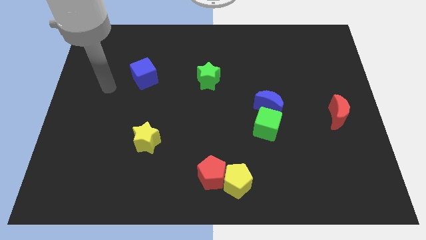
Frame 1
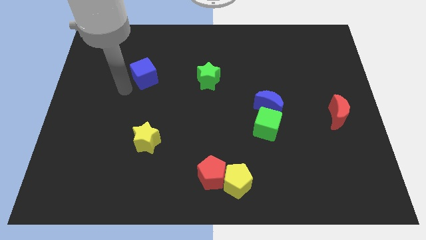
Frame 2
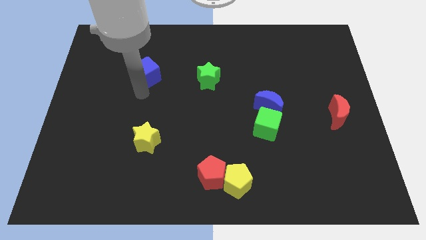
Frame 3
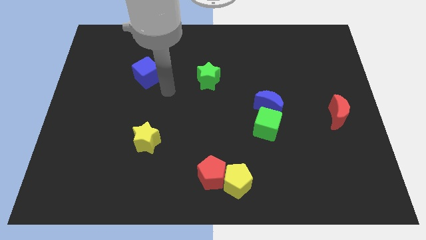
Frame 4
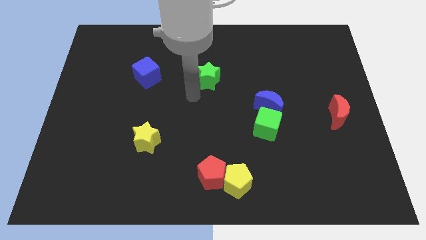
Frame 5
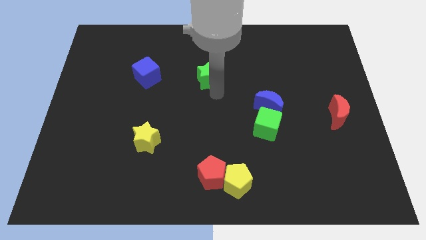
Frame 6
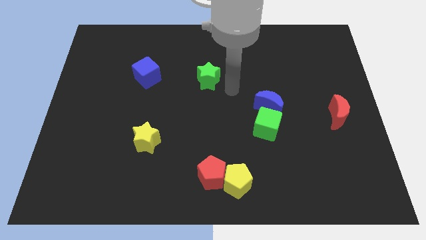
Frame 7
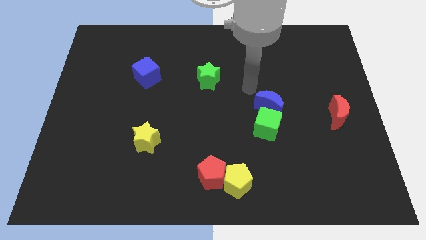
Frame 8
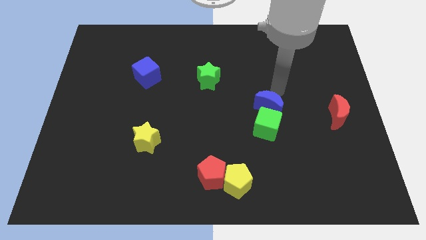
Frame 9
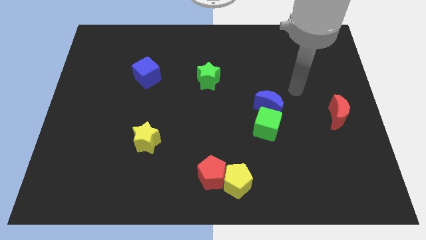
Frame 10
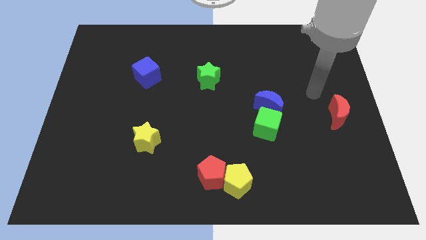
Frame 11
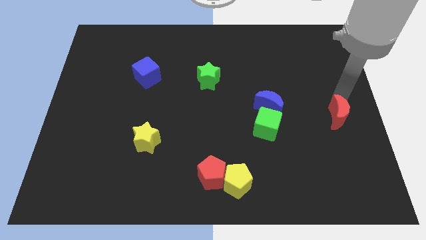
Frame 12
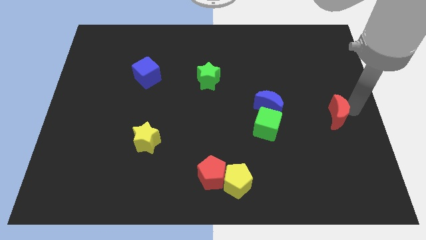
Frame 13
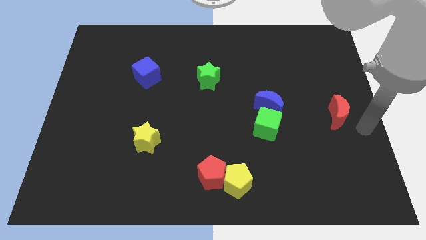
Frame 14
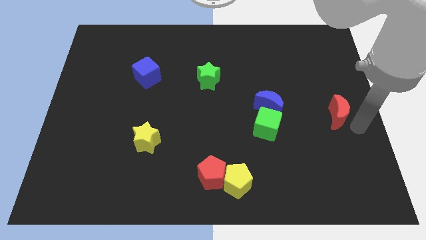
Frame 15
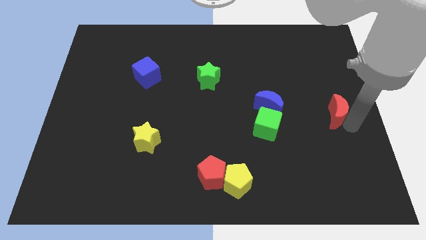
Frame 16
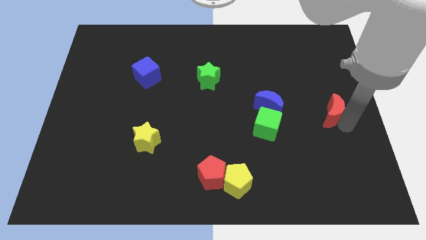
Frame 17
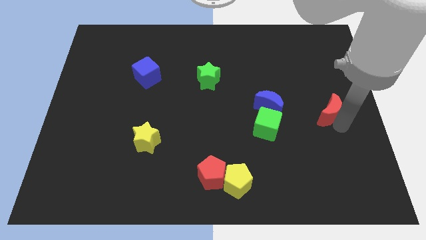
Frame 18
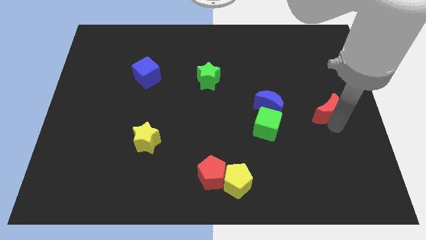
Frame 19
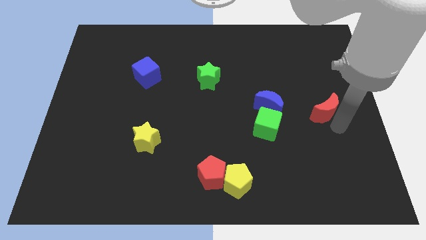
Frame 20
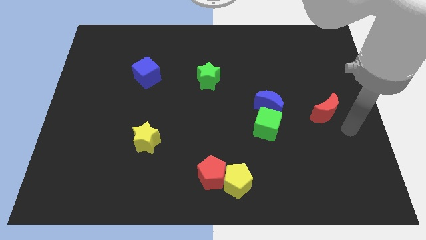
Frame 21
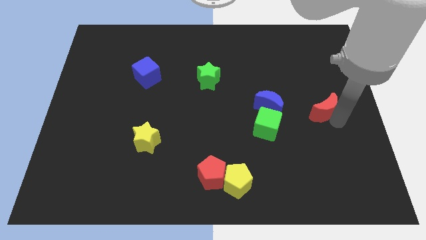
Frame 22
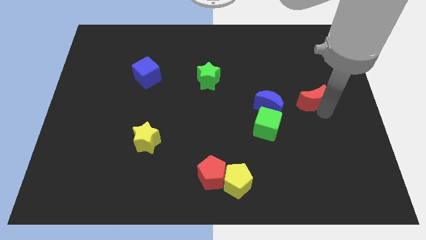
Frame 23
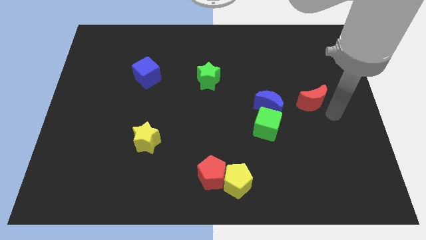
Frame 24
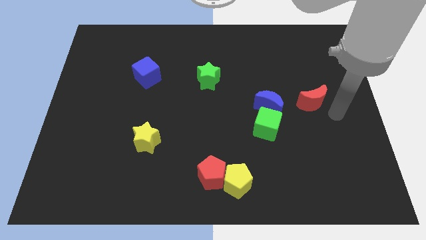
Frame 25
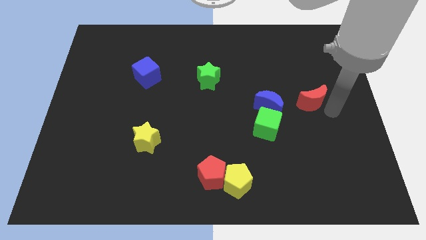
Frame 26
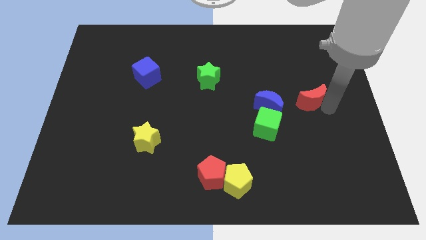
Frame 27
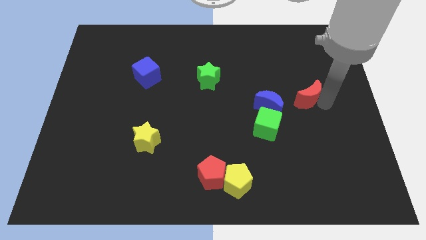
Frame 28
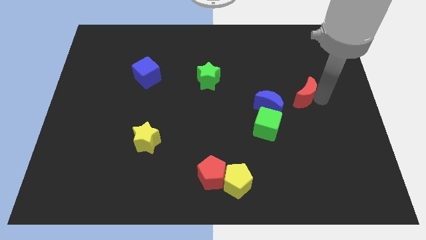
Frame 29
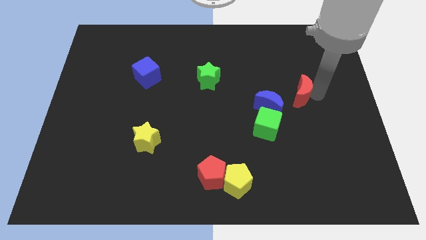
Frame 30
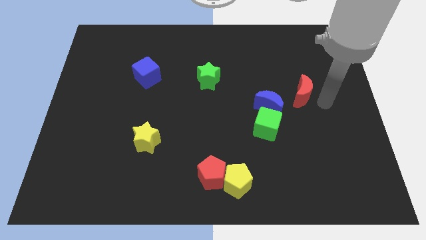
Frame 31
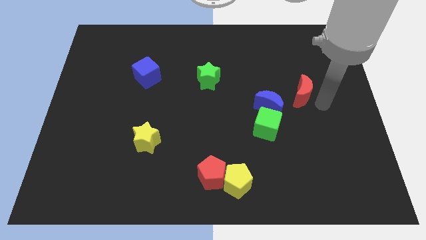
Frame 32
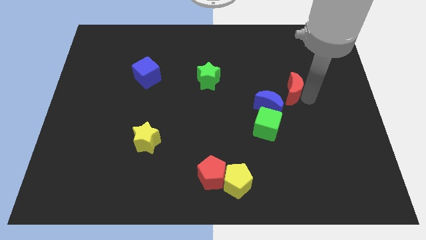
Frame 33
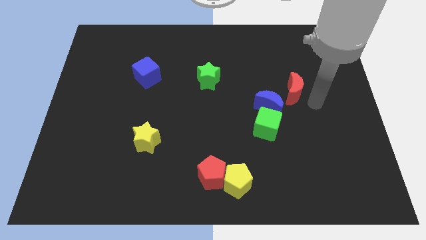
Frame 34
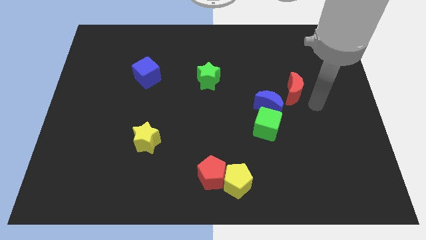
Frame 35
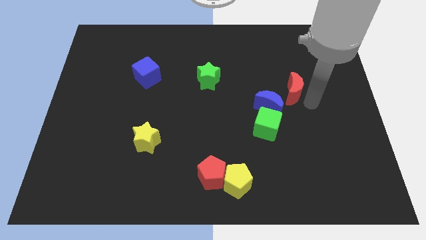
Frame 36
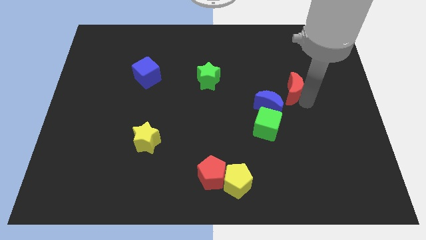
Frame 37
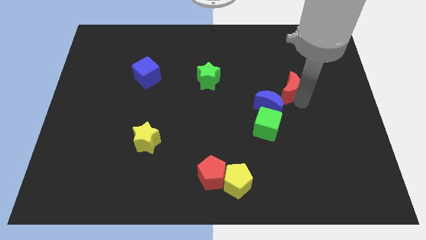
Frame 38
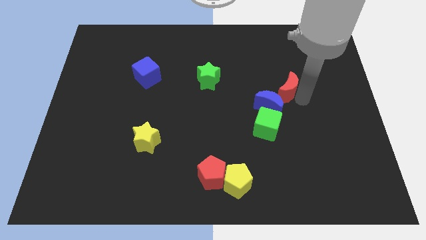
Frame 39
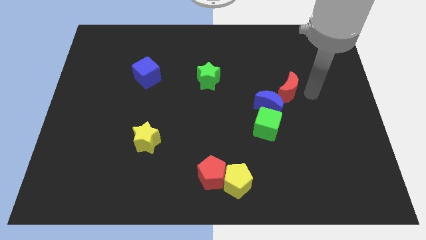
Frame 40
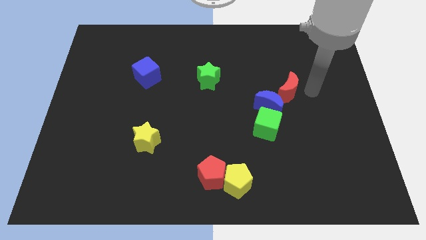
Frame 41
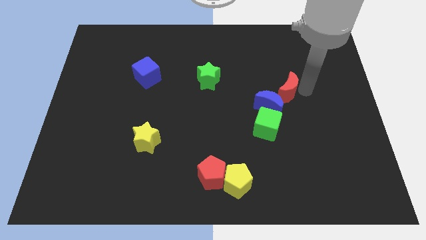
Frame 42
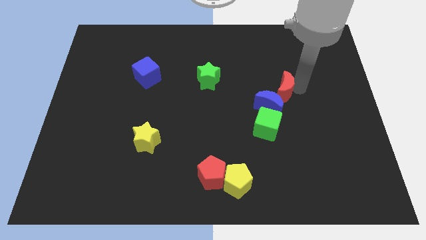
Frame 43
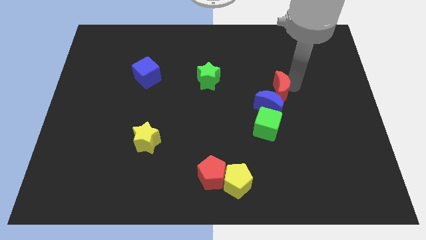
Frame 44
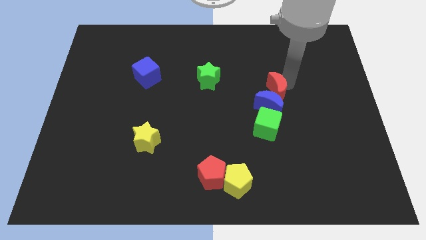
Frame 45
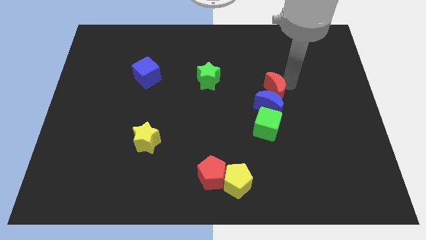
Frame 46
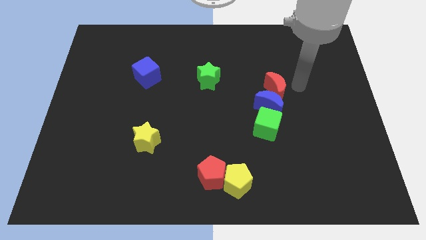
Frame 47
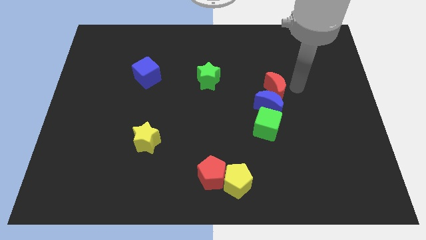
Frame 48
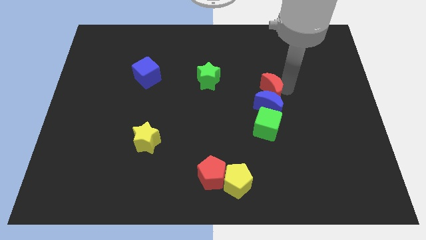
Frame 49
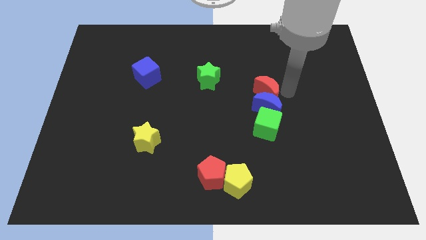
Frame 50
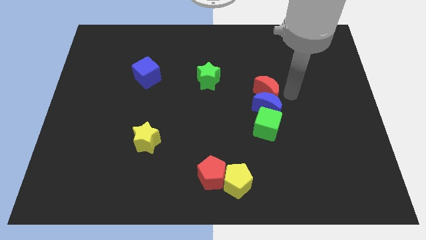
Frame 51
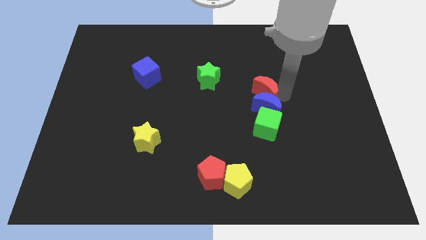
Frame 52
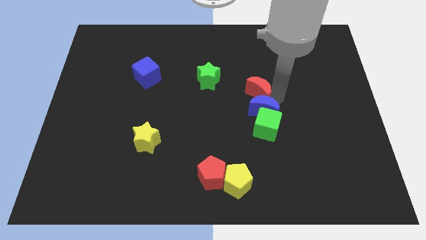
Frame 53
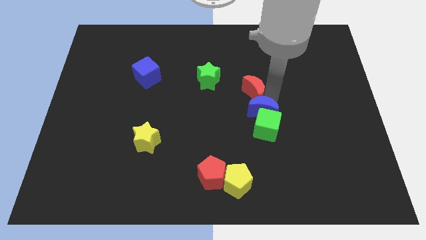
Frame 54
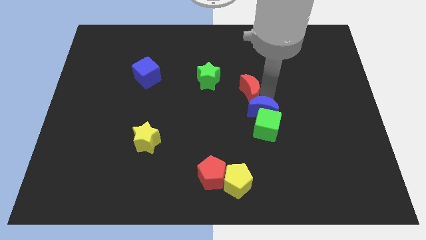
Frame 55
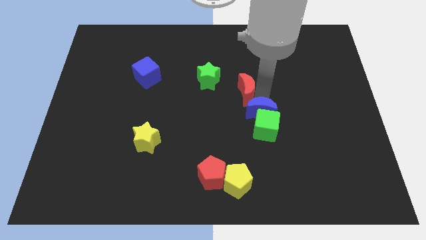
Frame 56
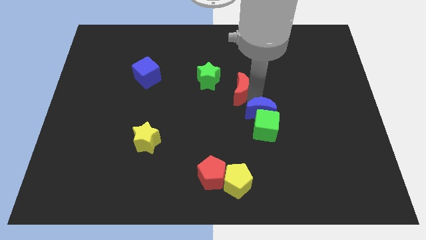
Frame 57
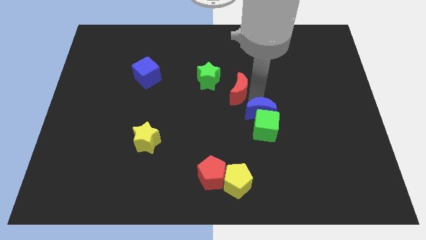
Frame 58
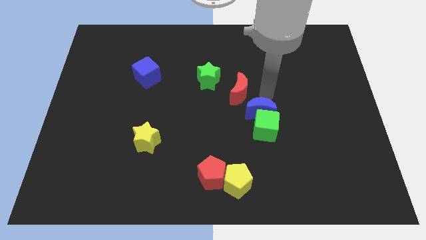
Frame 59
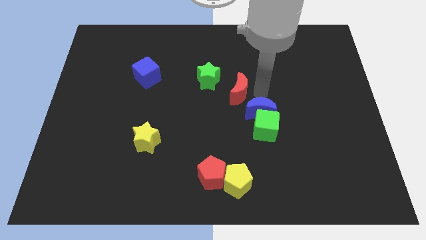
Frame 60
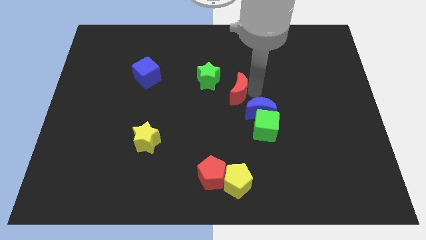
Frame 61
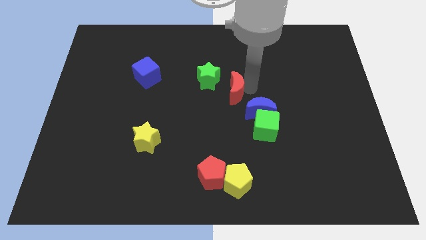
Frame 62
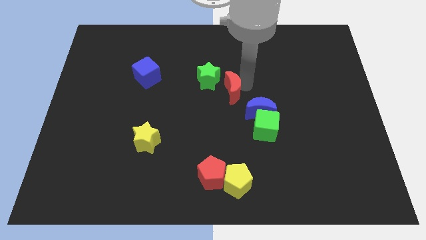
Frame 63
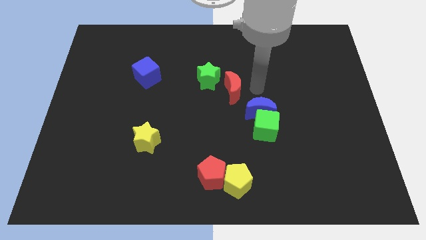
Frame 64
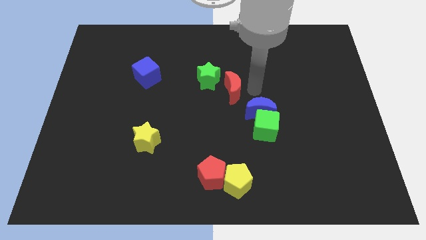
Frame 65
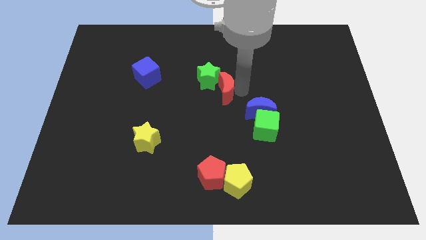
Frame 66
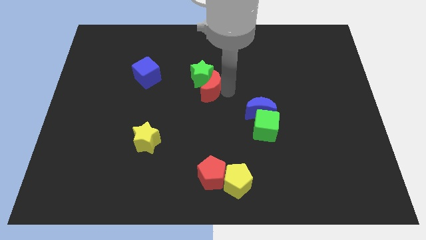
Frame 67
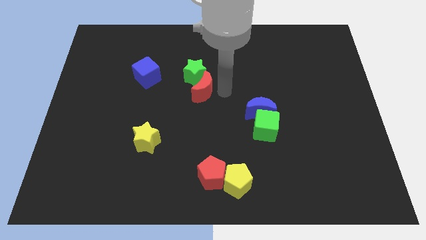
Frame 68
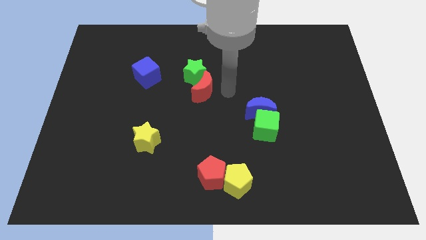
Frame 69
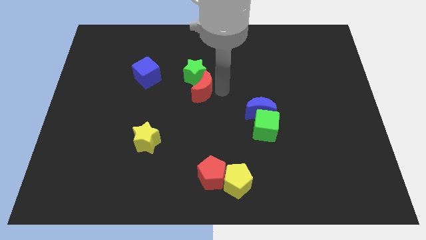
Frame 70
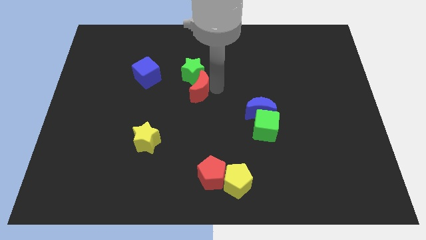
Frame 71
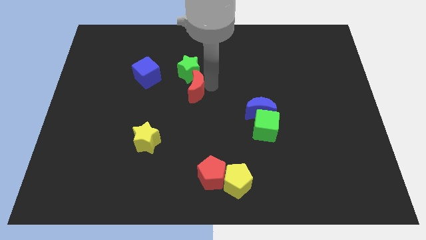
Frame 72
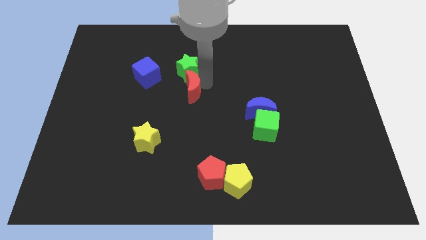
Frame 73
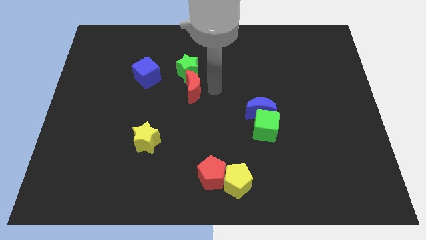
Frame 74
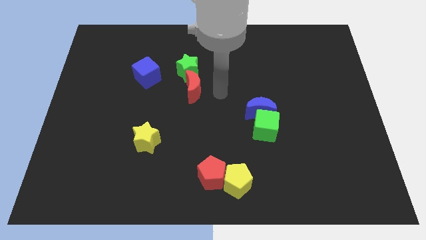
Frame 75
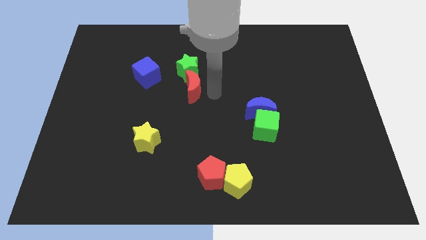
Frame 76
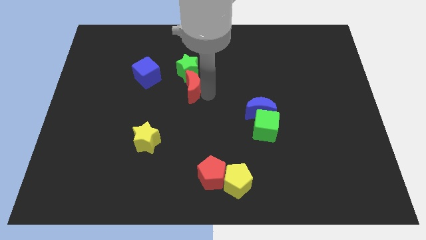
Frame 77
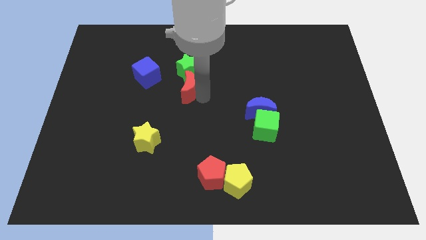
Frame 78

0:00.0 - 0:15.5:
push the red moon diagonally down and to the left of the green star
